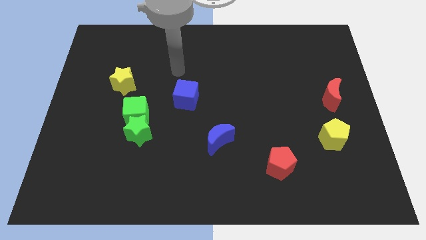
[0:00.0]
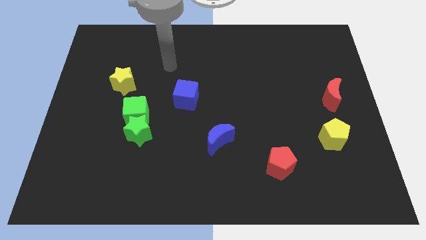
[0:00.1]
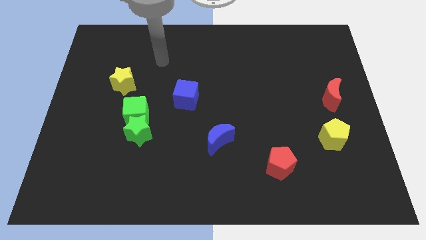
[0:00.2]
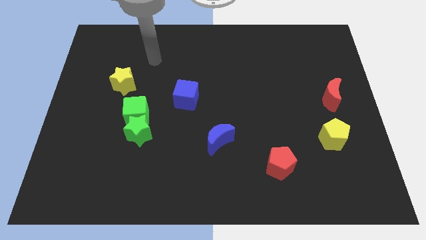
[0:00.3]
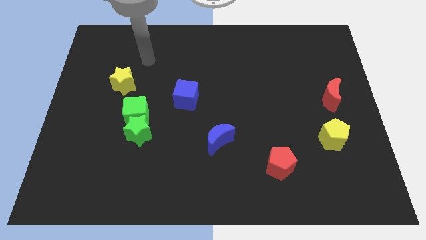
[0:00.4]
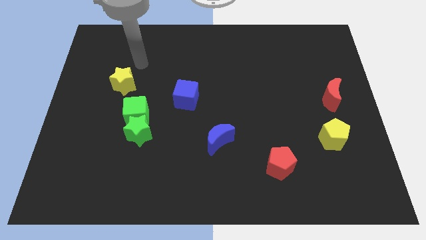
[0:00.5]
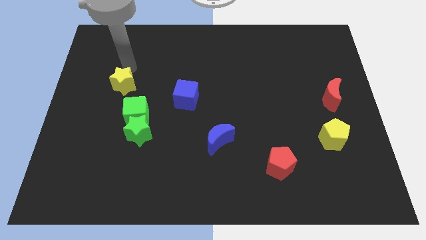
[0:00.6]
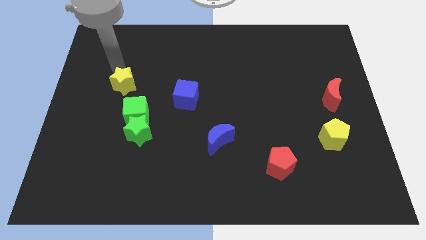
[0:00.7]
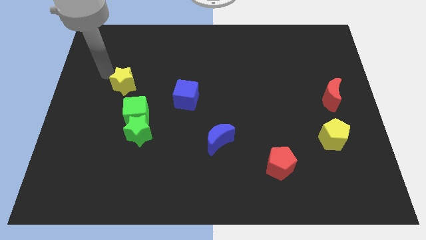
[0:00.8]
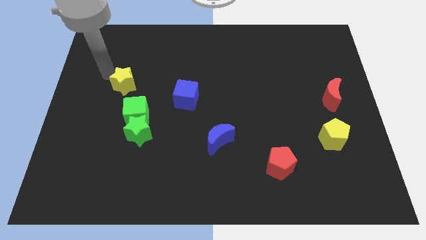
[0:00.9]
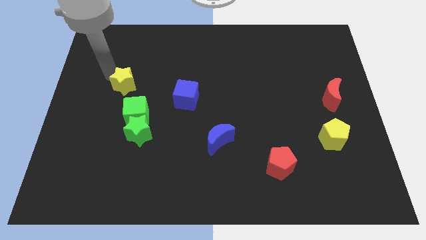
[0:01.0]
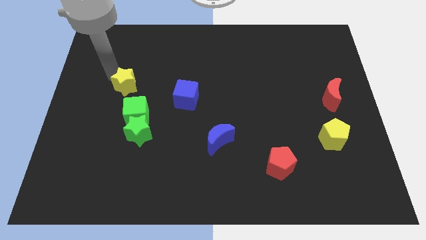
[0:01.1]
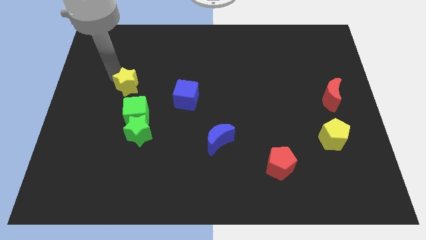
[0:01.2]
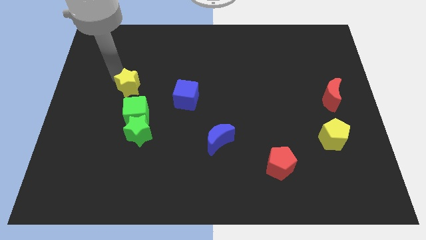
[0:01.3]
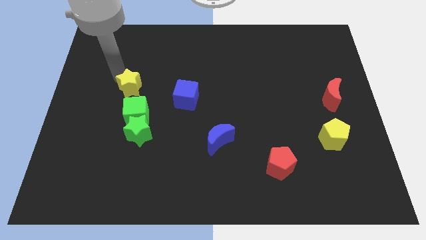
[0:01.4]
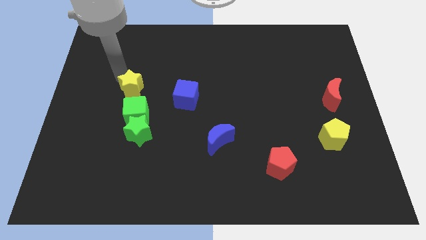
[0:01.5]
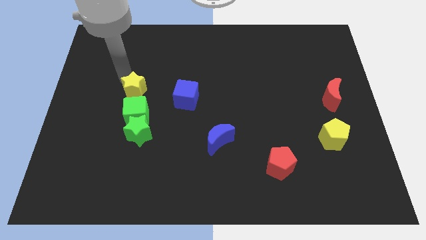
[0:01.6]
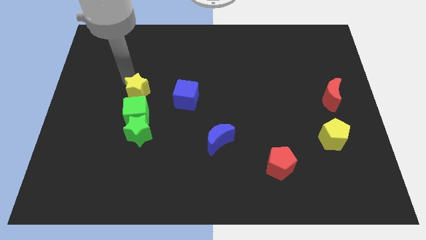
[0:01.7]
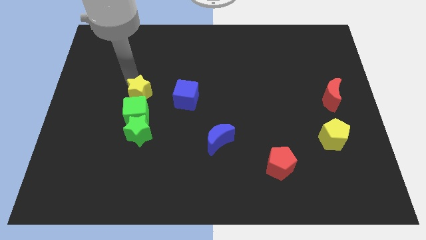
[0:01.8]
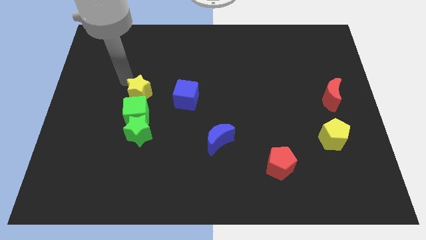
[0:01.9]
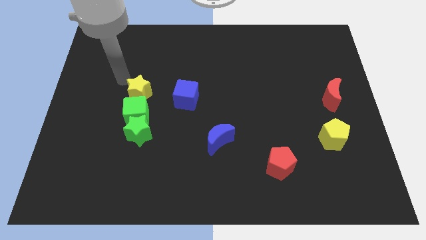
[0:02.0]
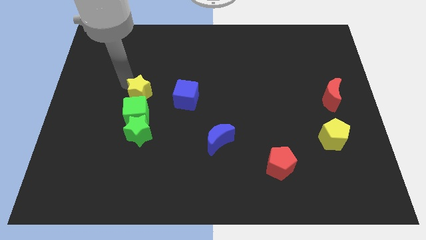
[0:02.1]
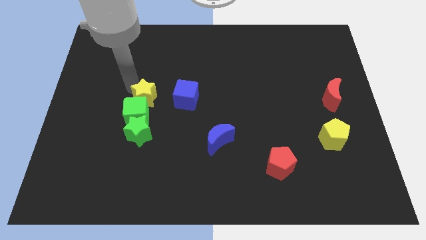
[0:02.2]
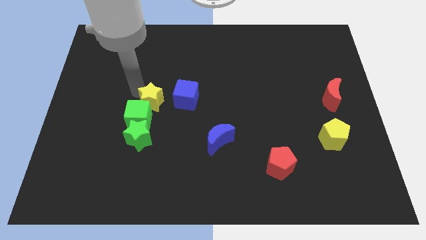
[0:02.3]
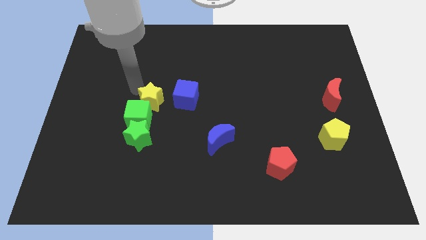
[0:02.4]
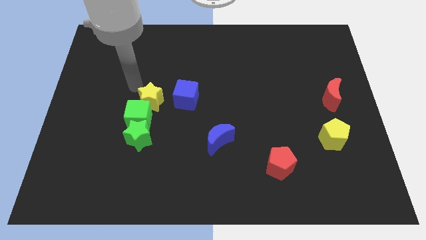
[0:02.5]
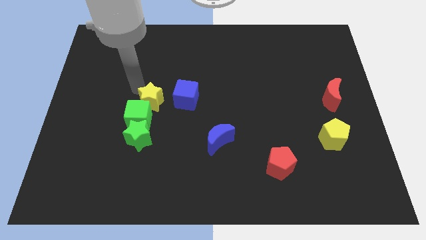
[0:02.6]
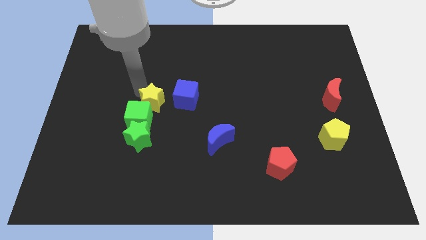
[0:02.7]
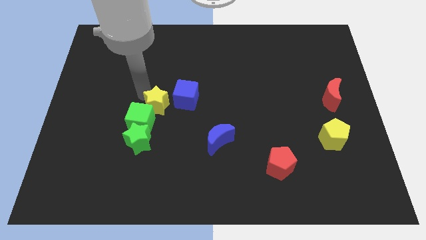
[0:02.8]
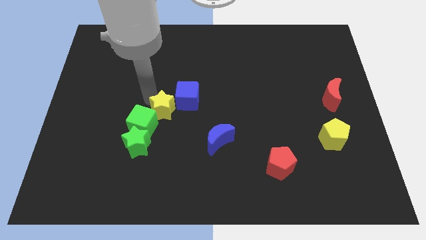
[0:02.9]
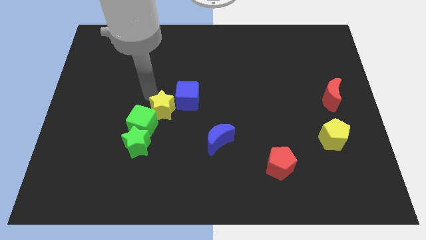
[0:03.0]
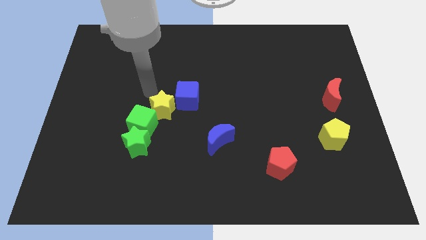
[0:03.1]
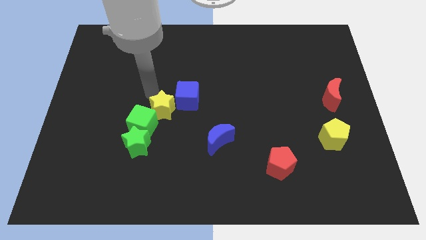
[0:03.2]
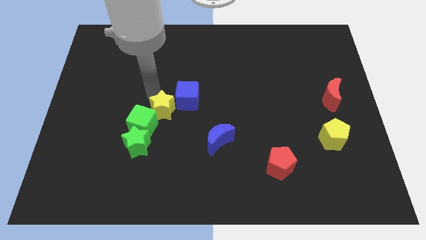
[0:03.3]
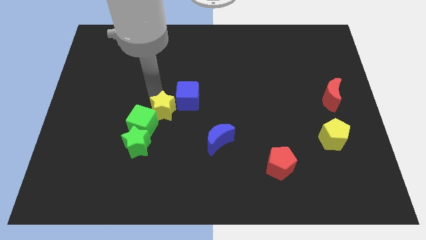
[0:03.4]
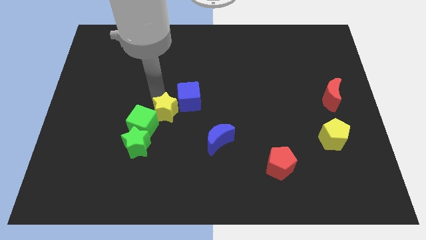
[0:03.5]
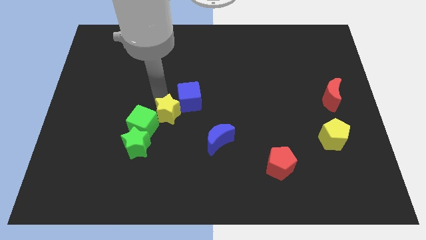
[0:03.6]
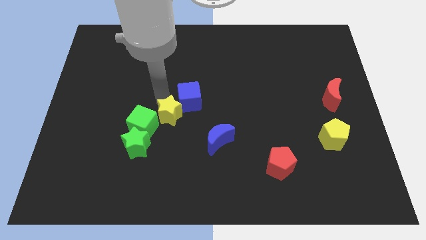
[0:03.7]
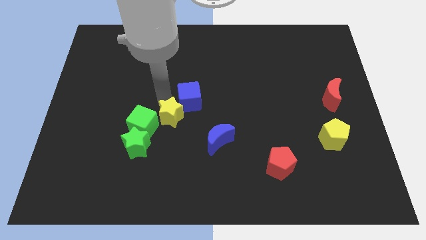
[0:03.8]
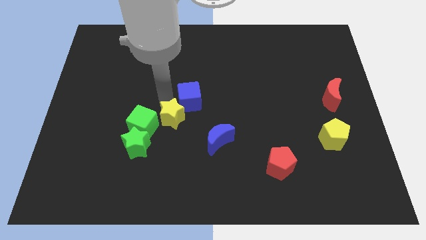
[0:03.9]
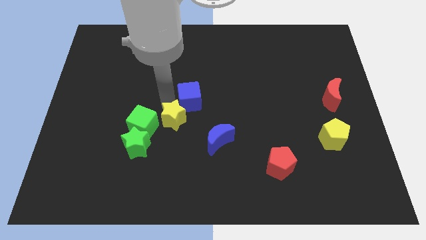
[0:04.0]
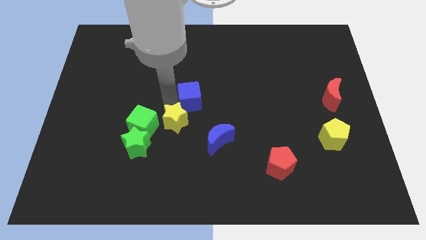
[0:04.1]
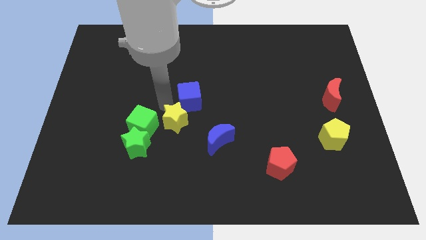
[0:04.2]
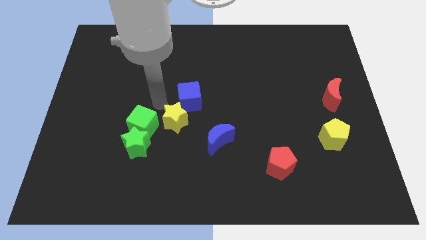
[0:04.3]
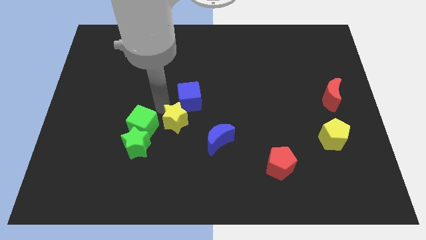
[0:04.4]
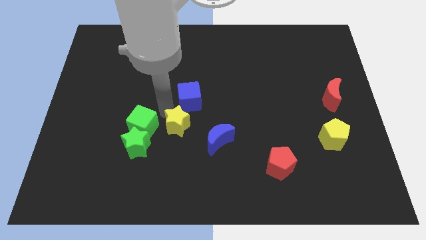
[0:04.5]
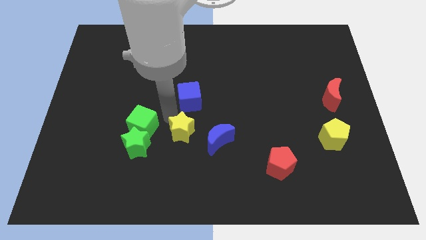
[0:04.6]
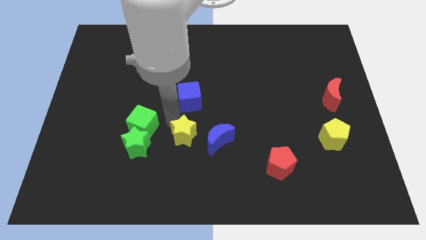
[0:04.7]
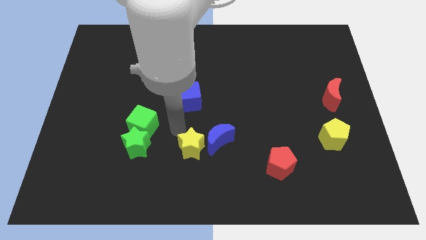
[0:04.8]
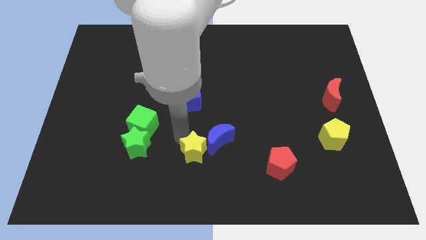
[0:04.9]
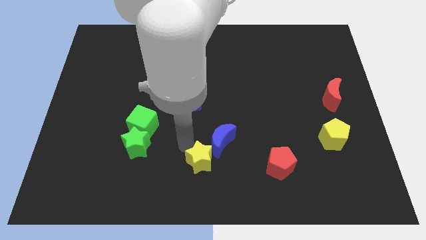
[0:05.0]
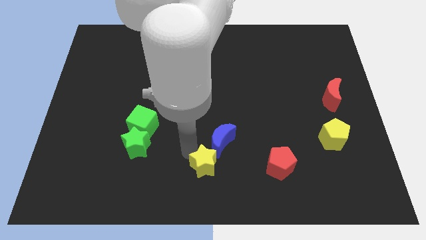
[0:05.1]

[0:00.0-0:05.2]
move the yellow star to the left side of the red pentagon

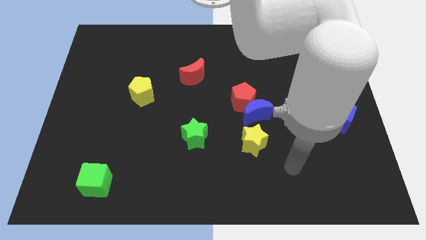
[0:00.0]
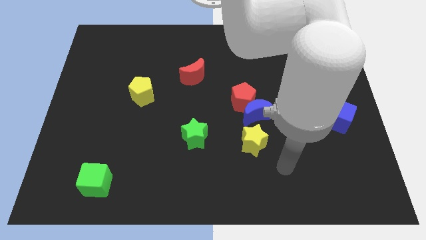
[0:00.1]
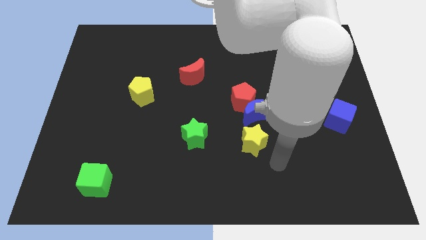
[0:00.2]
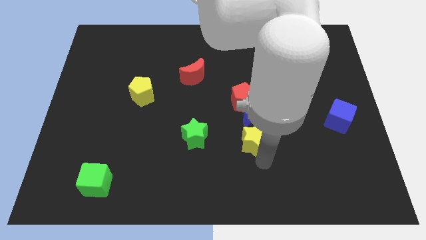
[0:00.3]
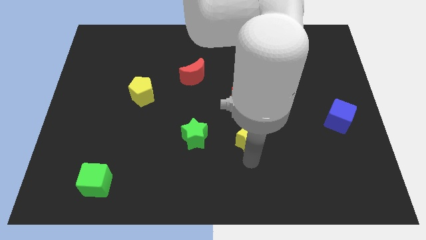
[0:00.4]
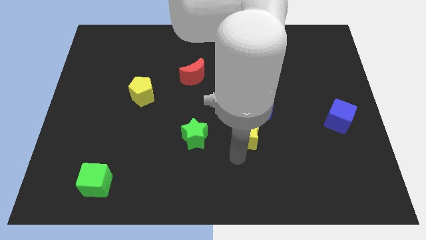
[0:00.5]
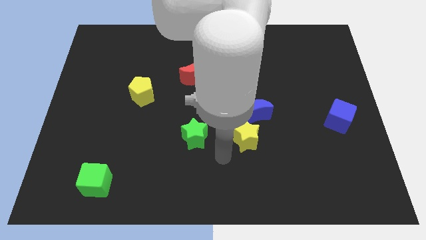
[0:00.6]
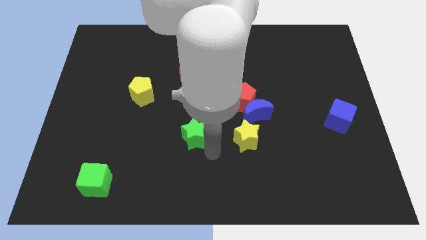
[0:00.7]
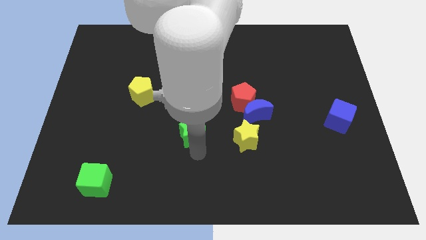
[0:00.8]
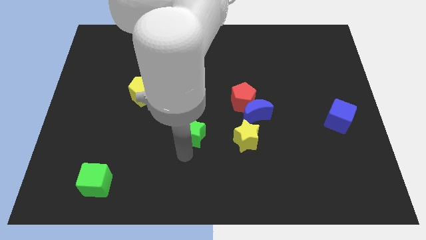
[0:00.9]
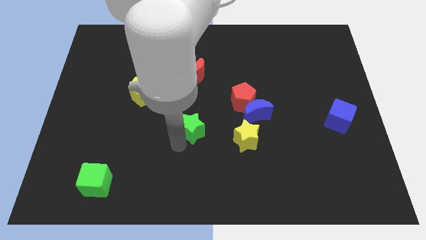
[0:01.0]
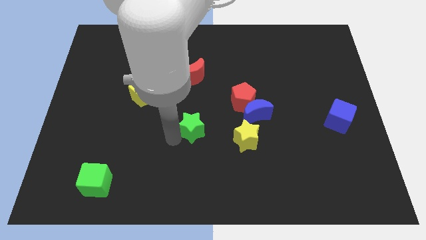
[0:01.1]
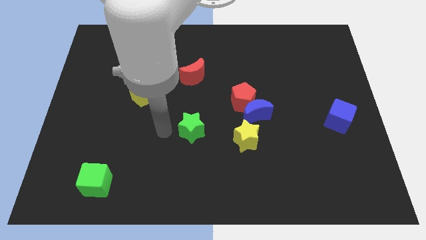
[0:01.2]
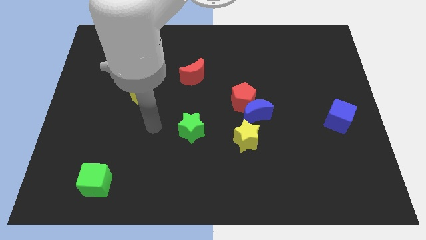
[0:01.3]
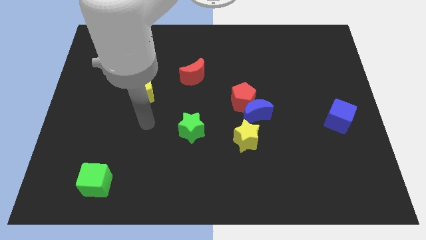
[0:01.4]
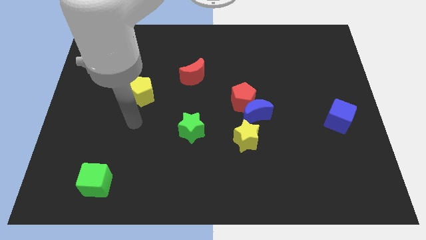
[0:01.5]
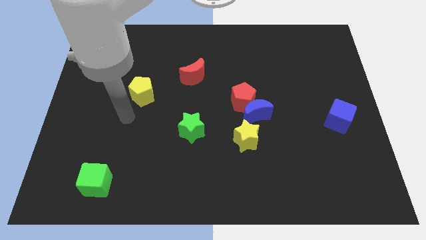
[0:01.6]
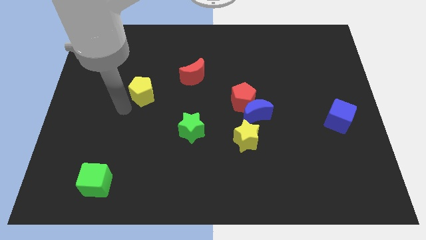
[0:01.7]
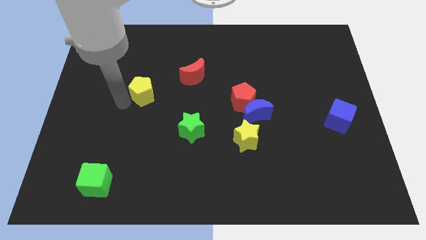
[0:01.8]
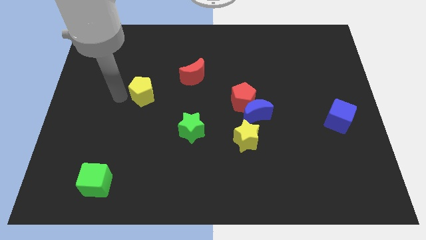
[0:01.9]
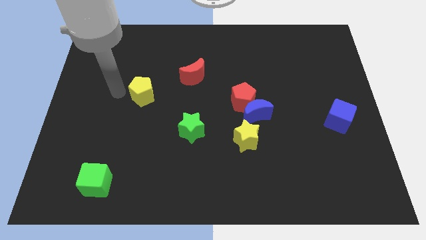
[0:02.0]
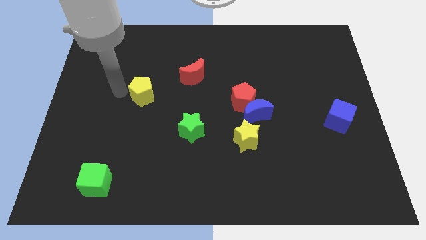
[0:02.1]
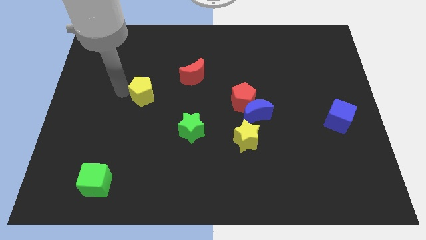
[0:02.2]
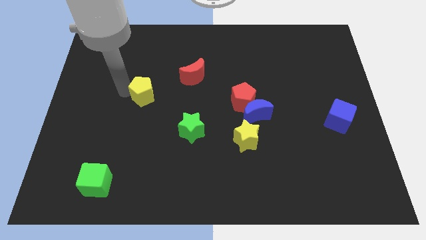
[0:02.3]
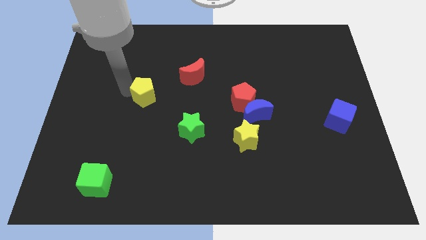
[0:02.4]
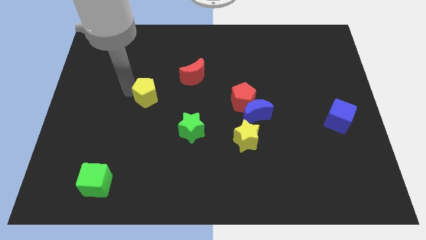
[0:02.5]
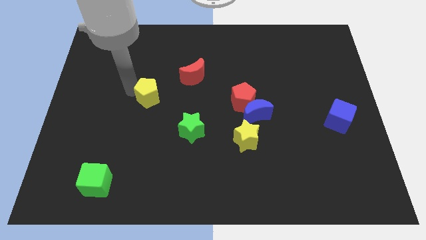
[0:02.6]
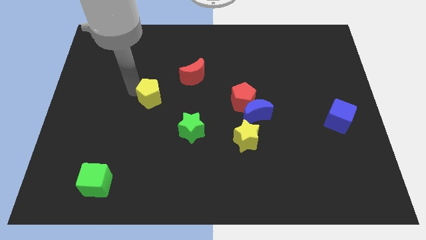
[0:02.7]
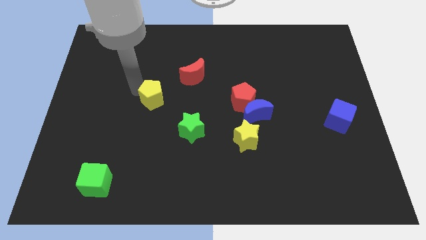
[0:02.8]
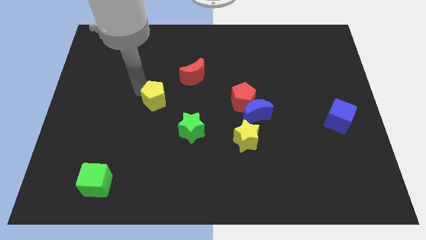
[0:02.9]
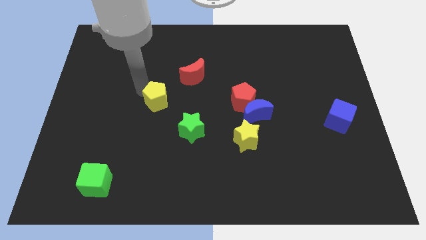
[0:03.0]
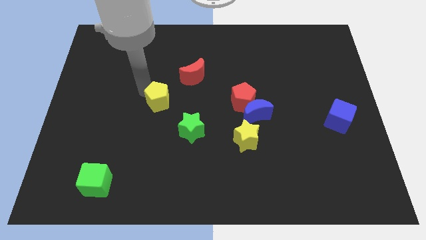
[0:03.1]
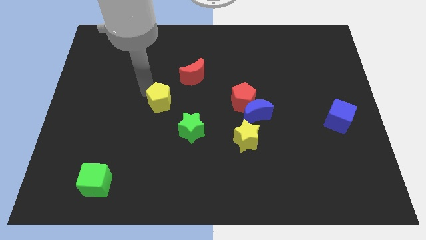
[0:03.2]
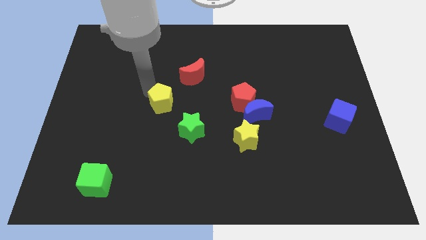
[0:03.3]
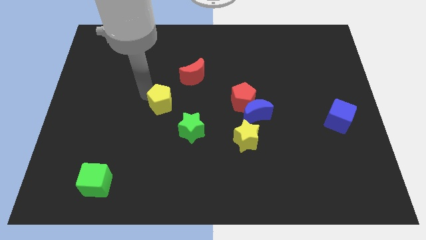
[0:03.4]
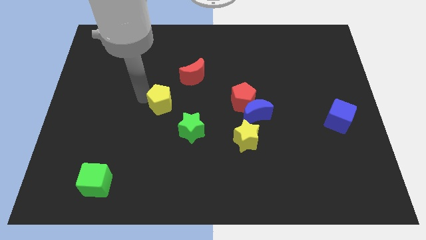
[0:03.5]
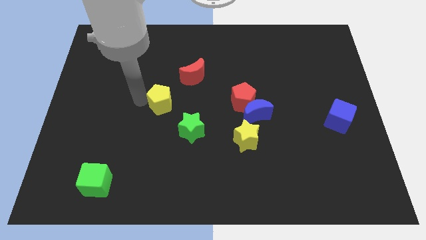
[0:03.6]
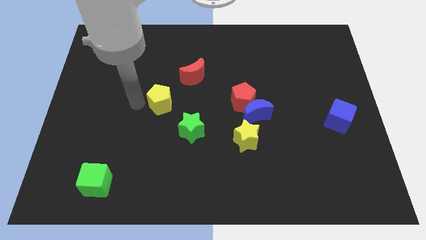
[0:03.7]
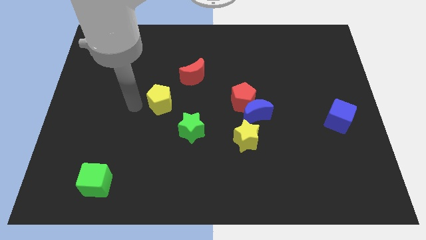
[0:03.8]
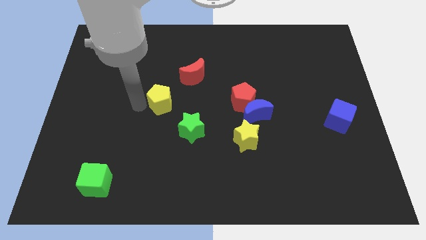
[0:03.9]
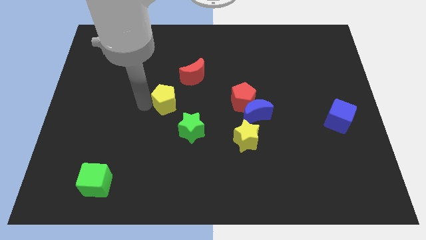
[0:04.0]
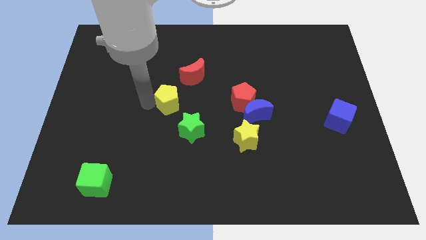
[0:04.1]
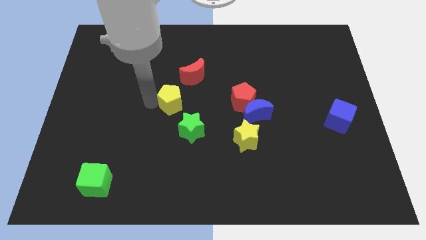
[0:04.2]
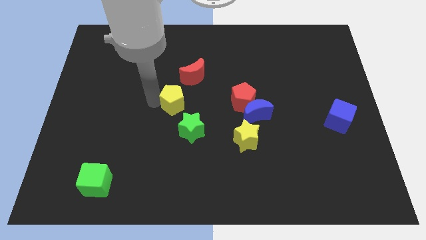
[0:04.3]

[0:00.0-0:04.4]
move the yellow pentagon to the bottom side of the red moon
